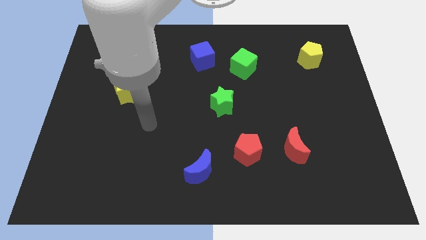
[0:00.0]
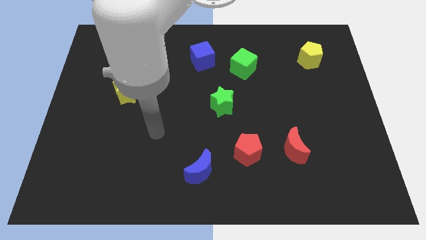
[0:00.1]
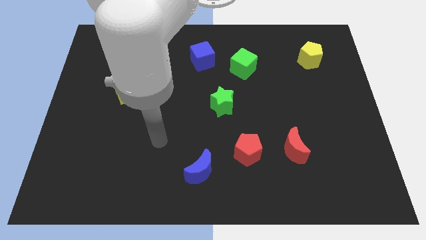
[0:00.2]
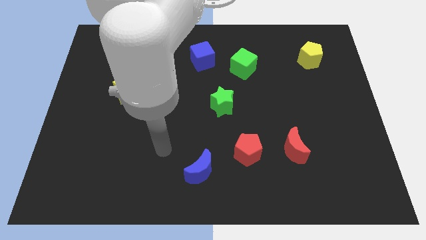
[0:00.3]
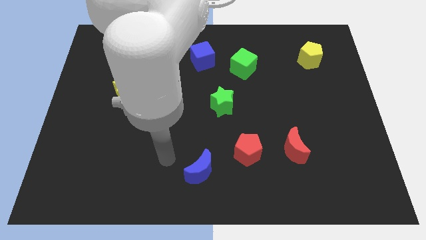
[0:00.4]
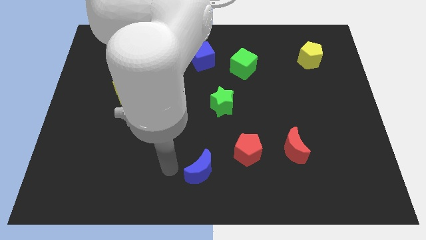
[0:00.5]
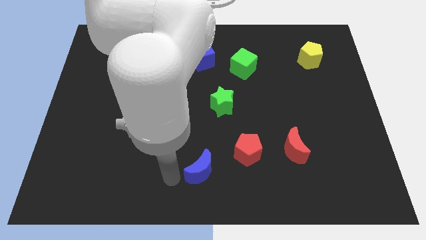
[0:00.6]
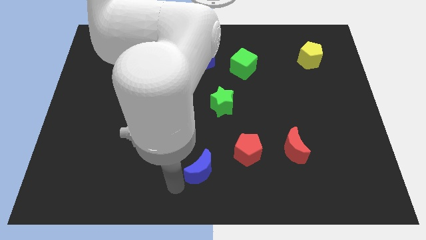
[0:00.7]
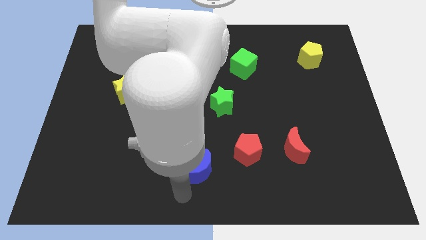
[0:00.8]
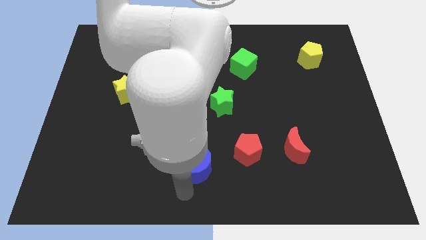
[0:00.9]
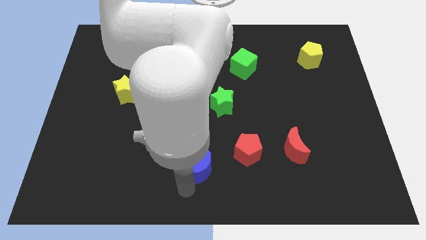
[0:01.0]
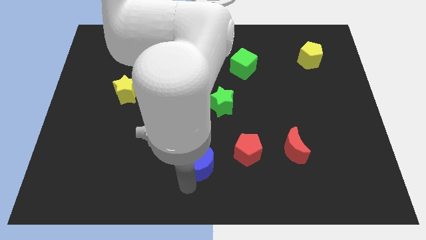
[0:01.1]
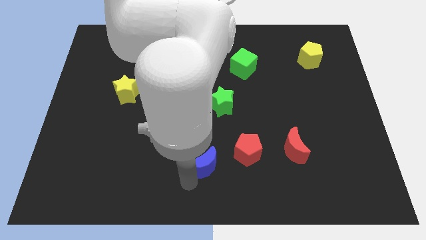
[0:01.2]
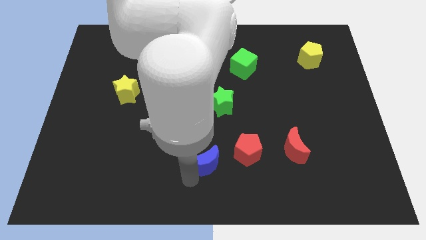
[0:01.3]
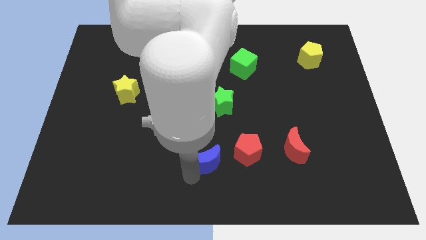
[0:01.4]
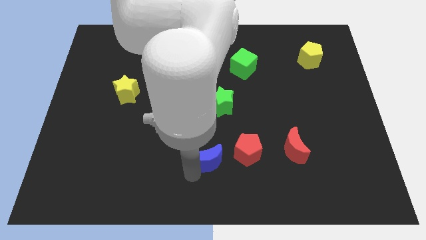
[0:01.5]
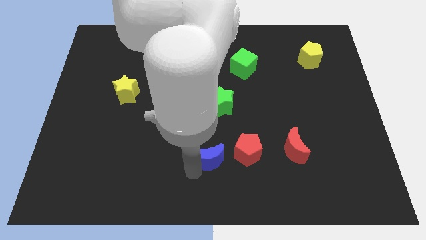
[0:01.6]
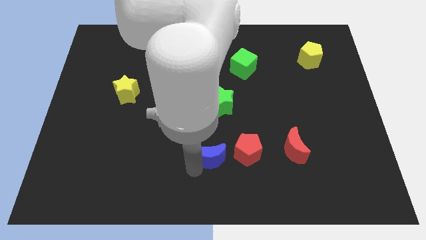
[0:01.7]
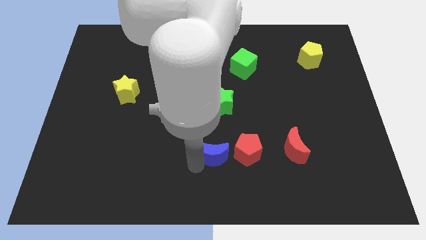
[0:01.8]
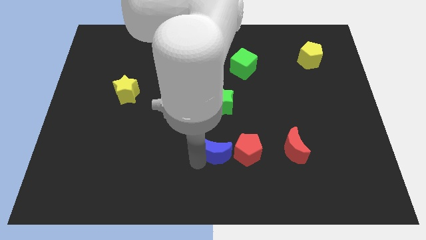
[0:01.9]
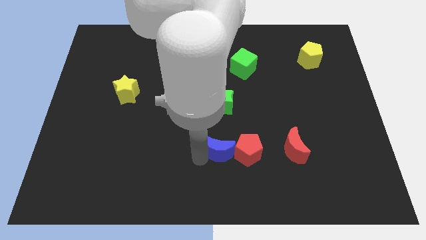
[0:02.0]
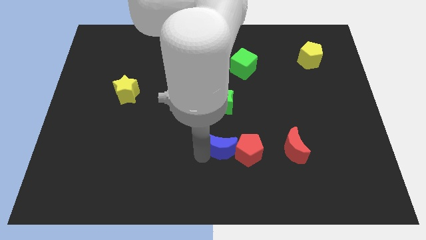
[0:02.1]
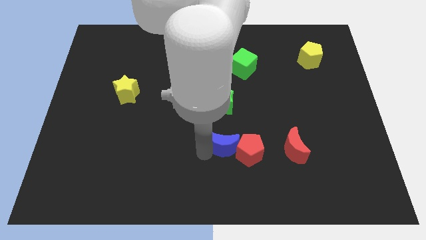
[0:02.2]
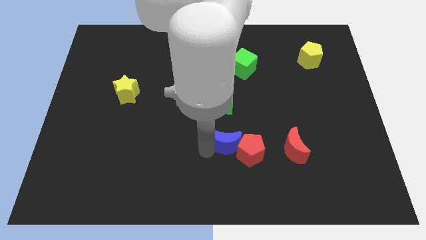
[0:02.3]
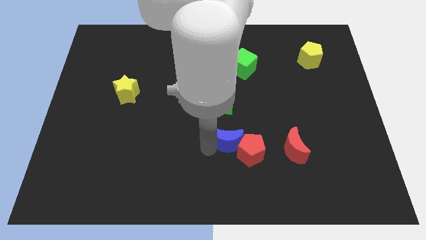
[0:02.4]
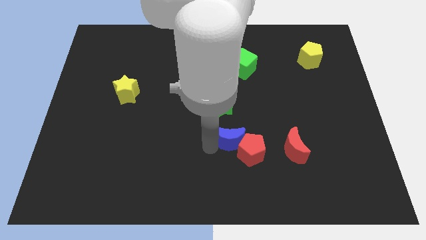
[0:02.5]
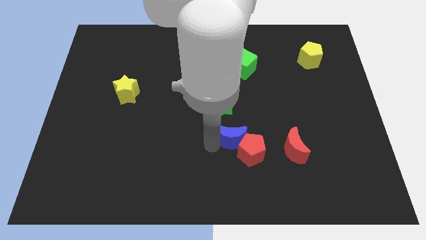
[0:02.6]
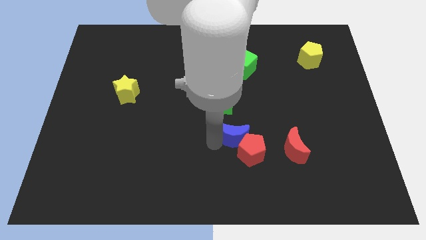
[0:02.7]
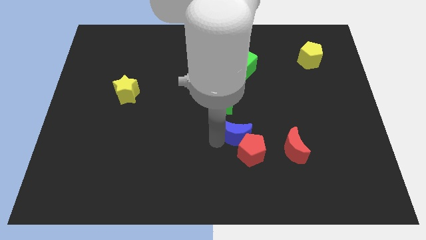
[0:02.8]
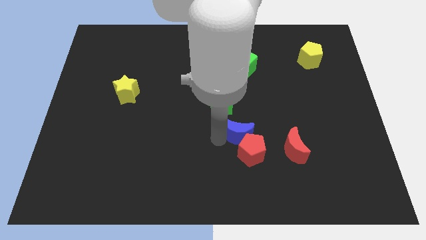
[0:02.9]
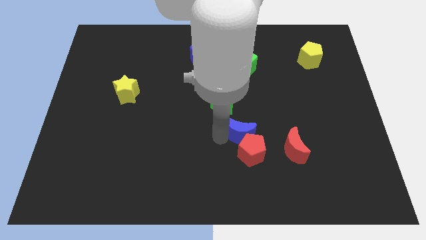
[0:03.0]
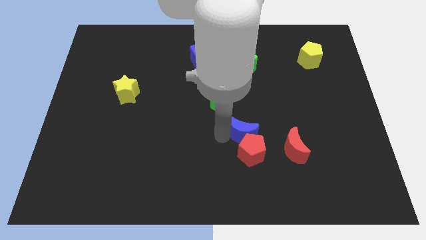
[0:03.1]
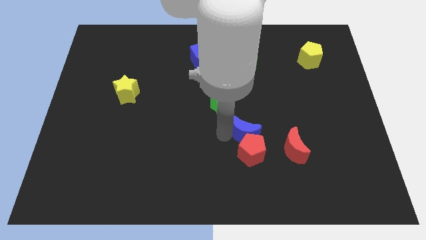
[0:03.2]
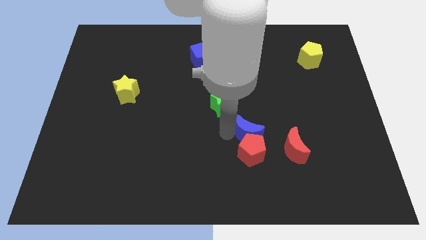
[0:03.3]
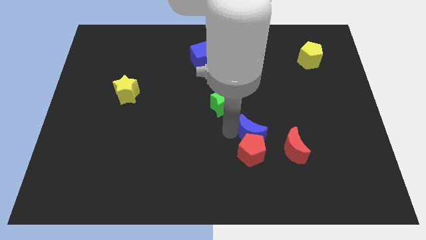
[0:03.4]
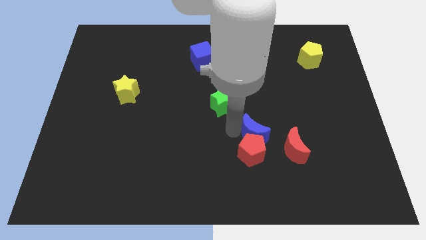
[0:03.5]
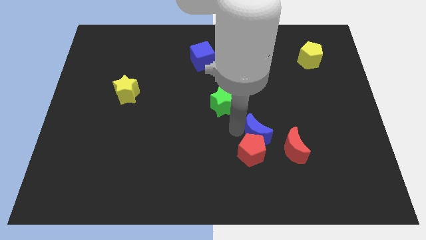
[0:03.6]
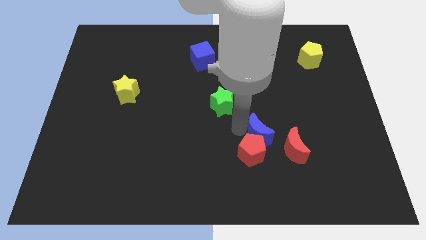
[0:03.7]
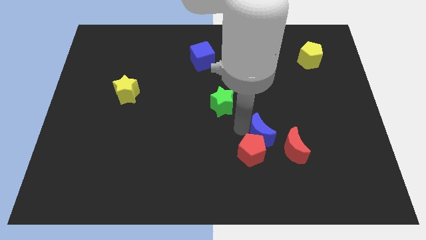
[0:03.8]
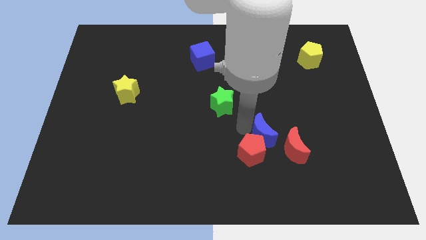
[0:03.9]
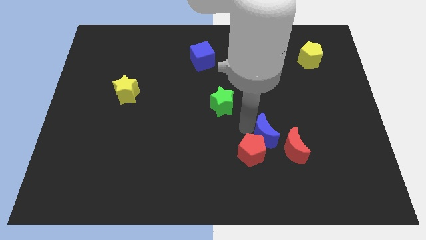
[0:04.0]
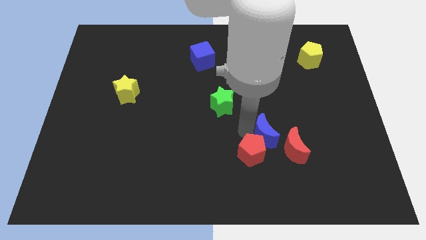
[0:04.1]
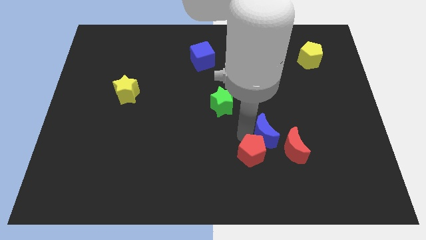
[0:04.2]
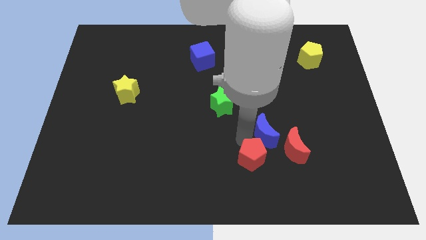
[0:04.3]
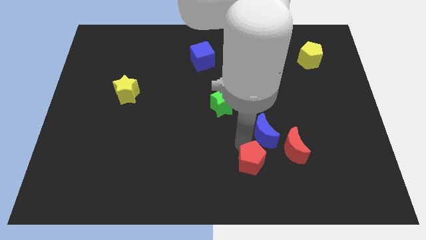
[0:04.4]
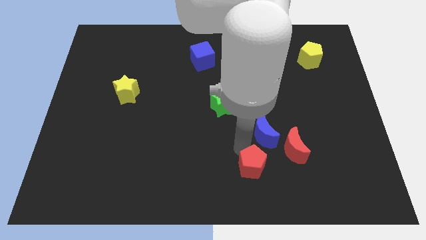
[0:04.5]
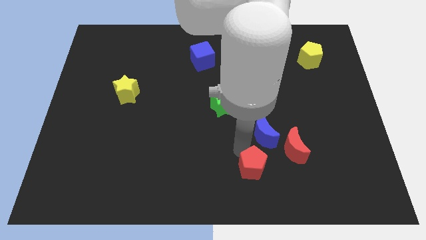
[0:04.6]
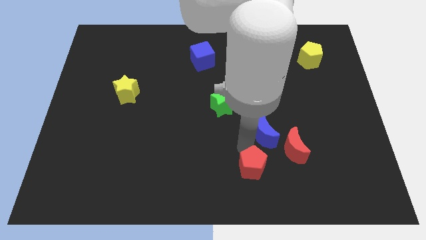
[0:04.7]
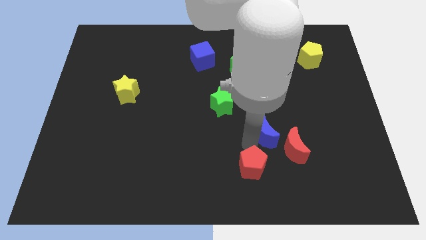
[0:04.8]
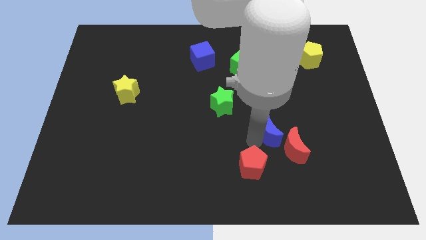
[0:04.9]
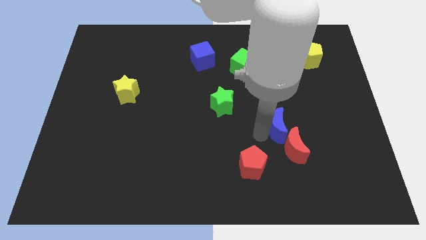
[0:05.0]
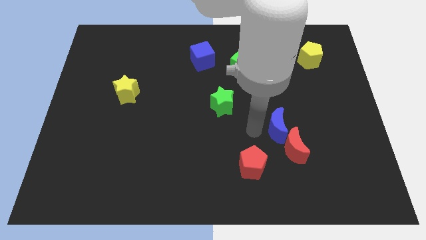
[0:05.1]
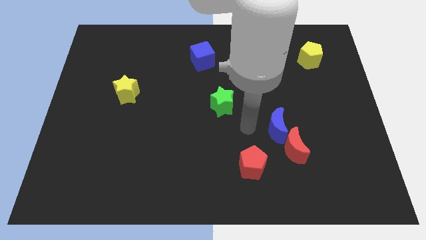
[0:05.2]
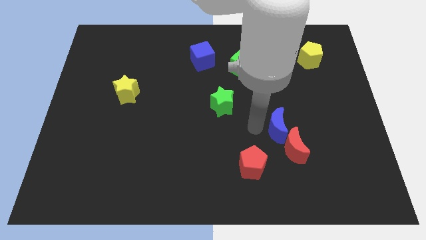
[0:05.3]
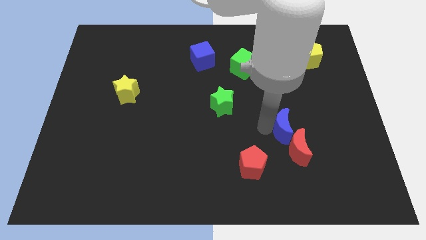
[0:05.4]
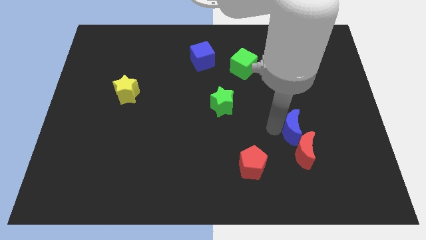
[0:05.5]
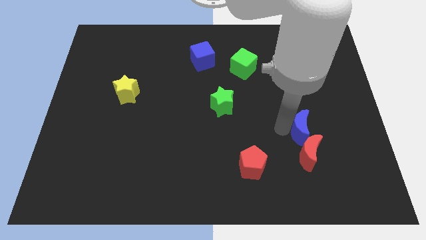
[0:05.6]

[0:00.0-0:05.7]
push the blue moon diagonally up and to the right of the red moon

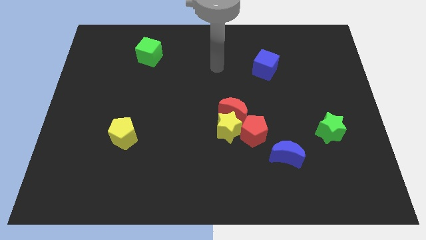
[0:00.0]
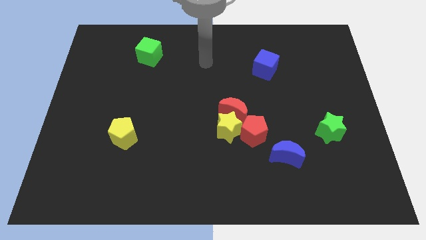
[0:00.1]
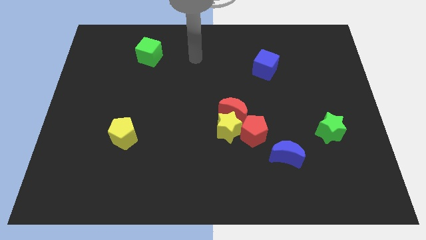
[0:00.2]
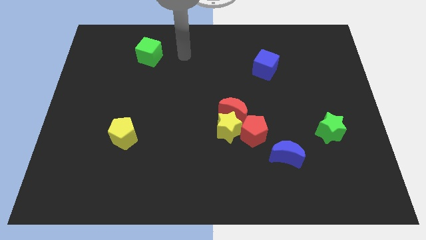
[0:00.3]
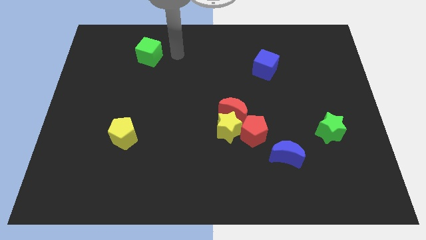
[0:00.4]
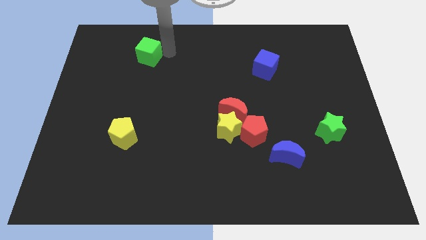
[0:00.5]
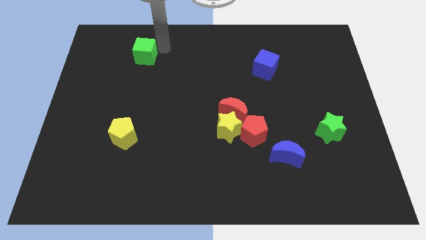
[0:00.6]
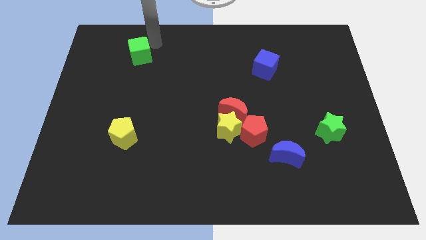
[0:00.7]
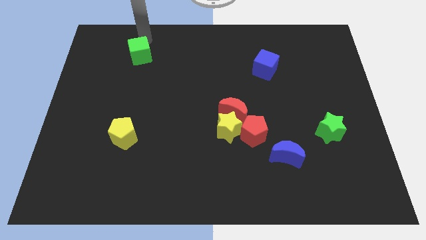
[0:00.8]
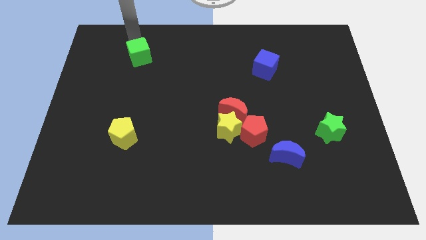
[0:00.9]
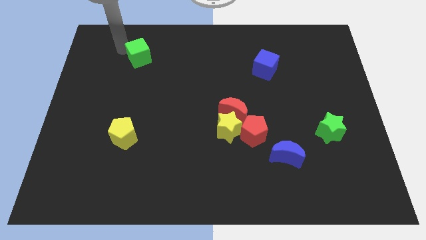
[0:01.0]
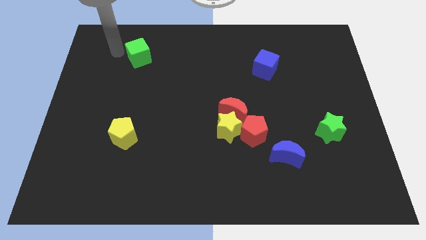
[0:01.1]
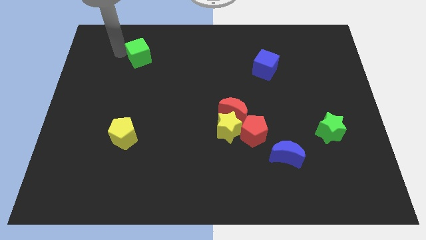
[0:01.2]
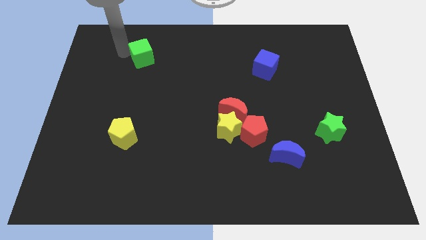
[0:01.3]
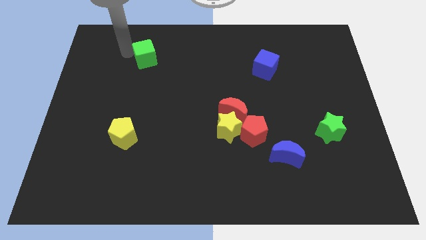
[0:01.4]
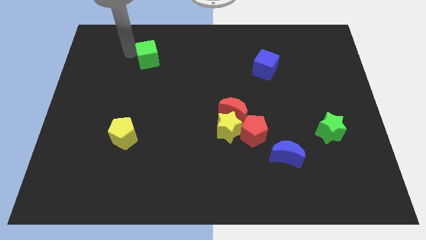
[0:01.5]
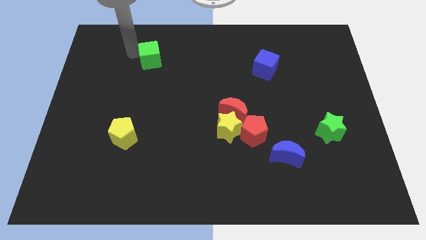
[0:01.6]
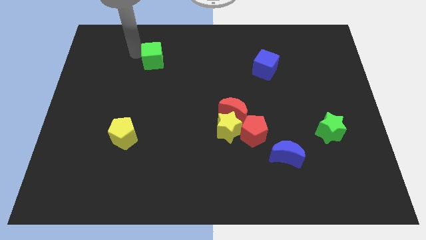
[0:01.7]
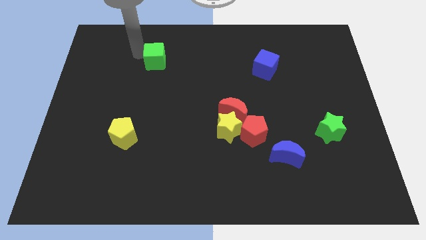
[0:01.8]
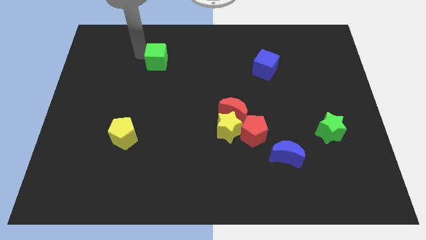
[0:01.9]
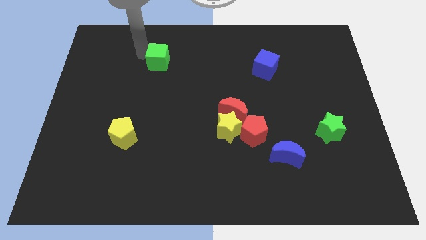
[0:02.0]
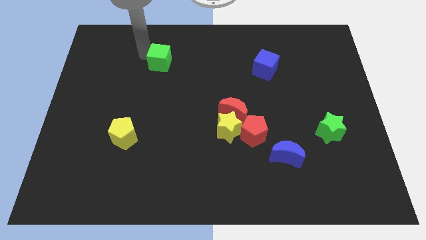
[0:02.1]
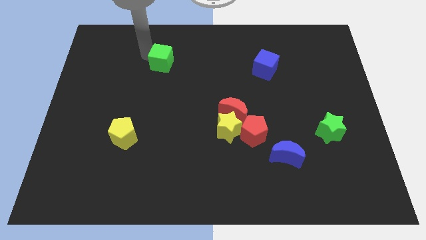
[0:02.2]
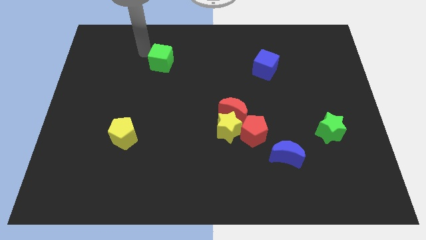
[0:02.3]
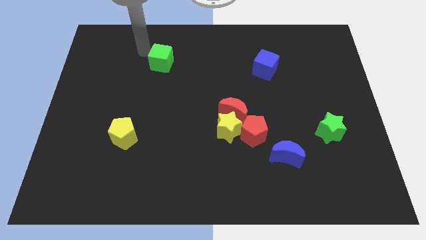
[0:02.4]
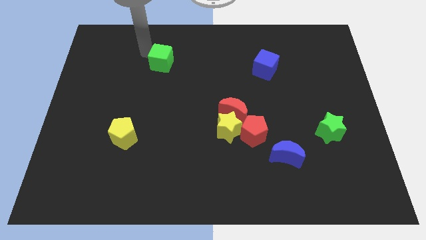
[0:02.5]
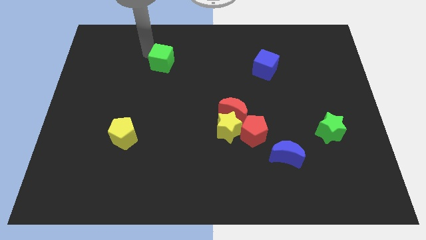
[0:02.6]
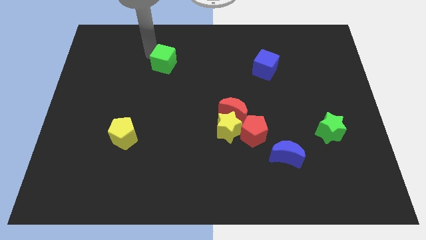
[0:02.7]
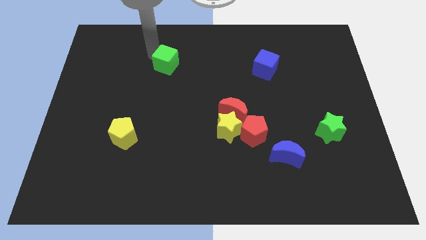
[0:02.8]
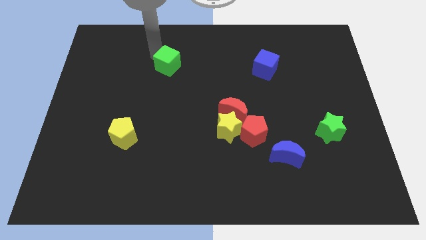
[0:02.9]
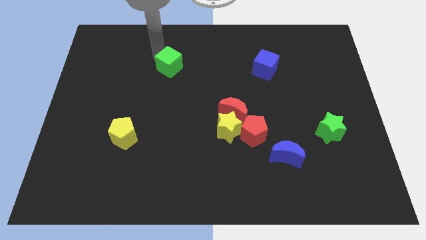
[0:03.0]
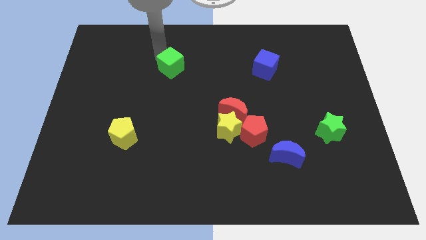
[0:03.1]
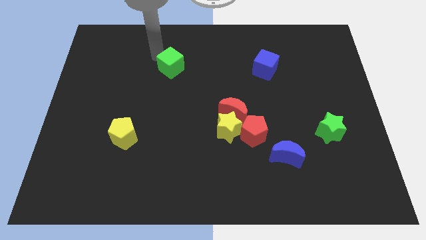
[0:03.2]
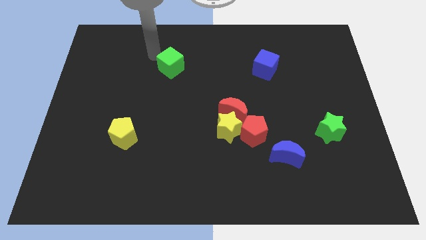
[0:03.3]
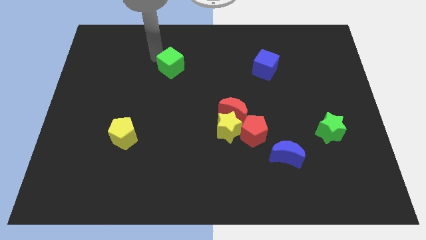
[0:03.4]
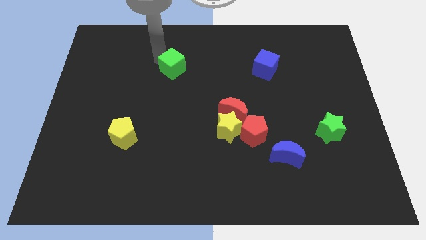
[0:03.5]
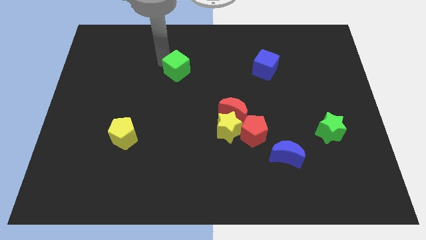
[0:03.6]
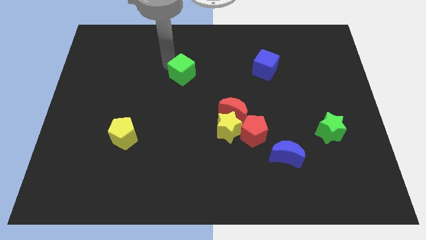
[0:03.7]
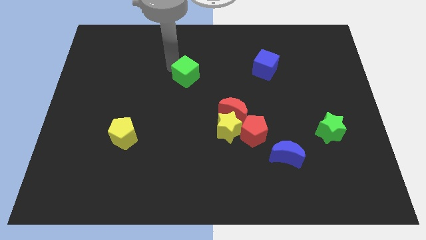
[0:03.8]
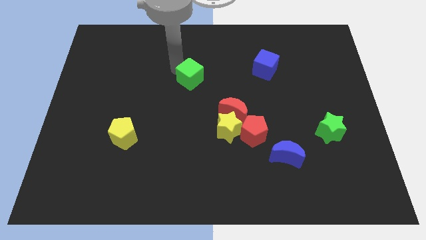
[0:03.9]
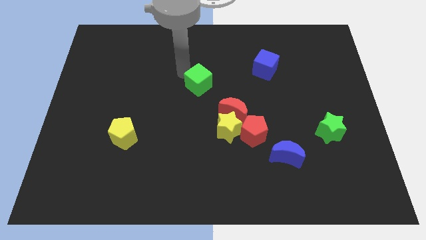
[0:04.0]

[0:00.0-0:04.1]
push the green cube diagonally up and to the left of the red moon
